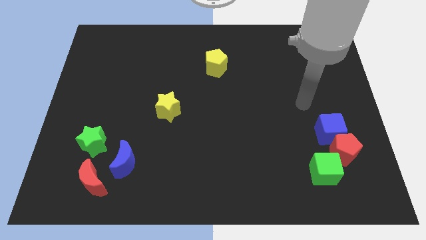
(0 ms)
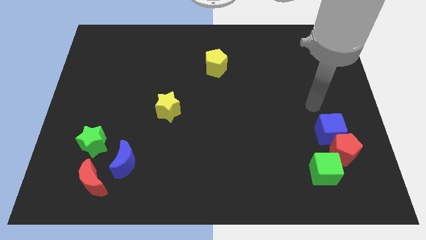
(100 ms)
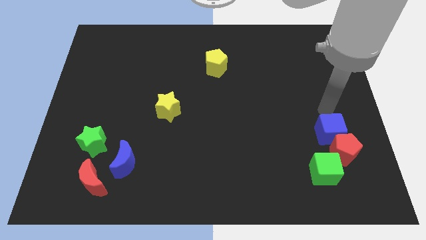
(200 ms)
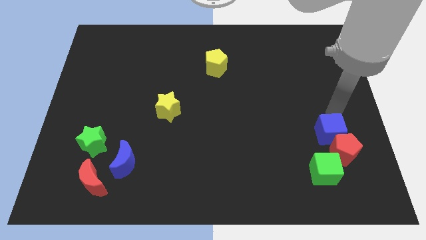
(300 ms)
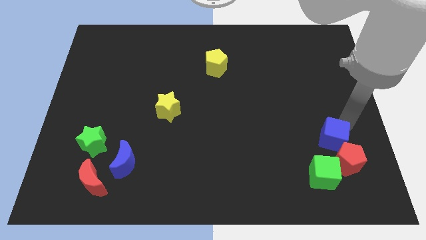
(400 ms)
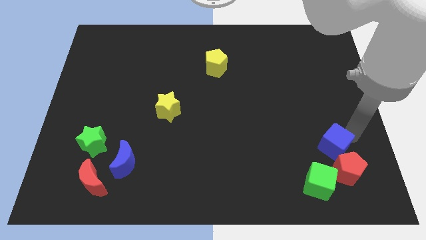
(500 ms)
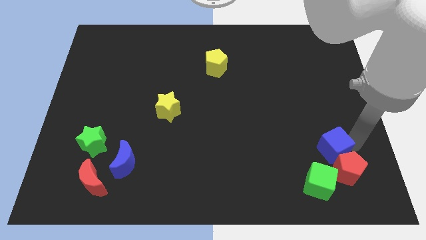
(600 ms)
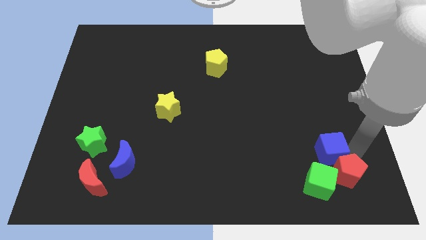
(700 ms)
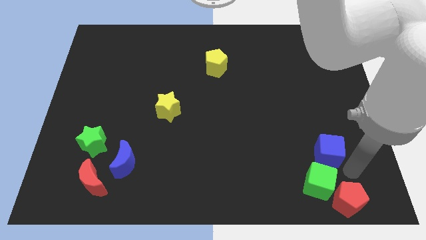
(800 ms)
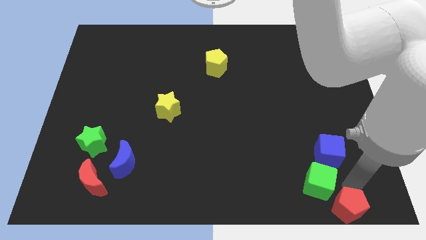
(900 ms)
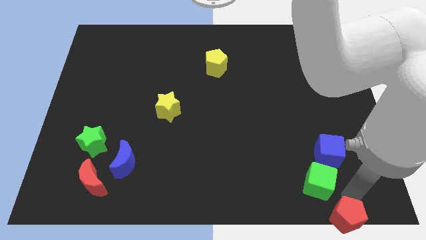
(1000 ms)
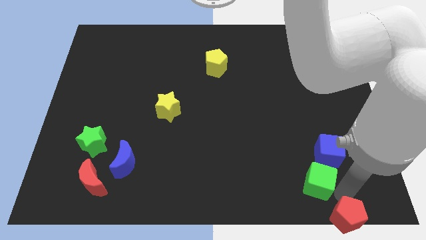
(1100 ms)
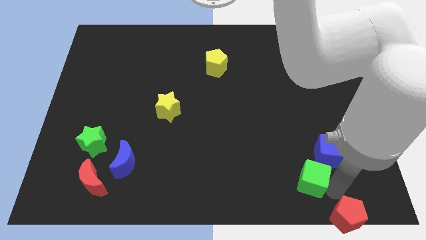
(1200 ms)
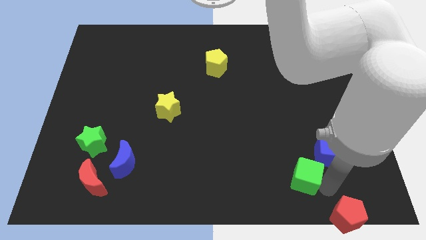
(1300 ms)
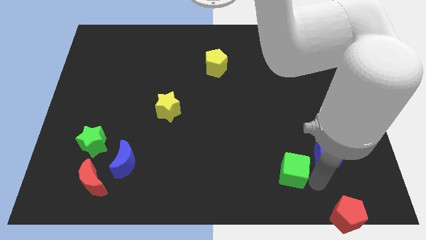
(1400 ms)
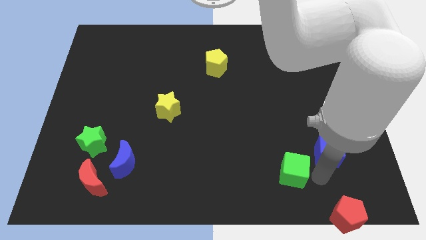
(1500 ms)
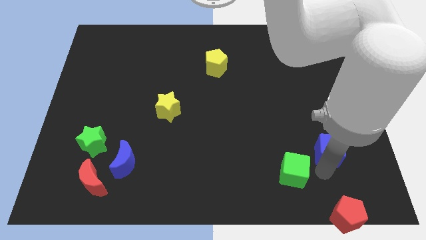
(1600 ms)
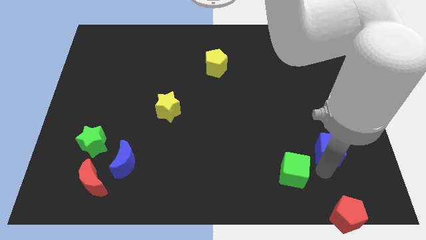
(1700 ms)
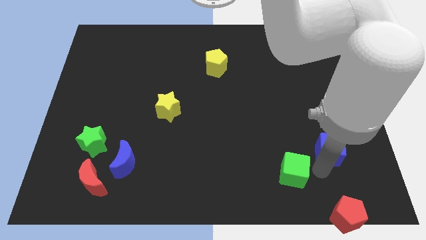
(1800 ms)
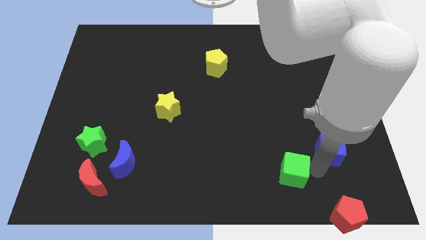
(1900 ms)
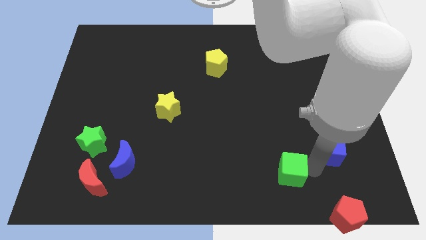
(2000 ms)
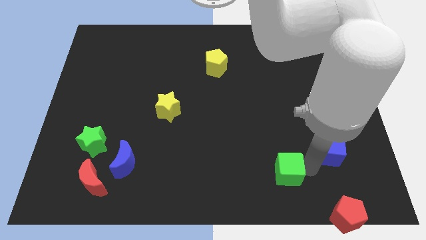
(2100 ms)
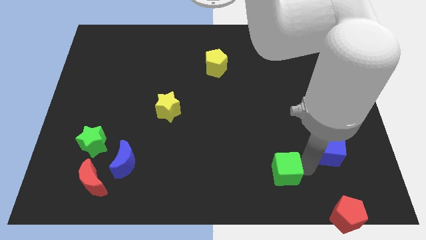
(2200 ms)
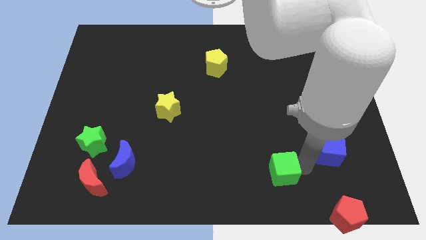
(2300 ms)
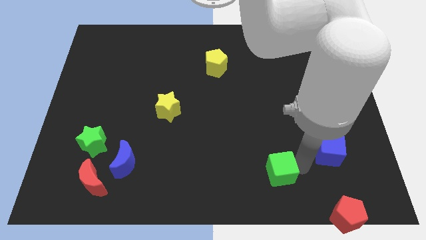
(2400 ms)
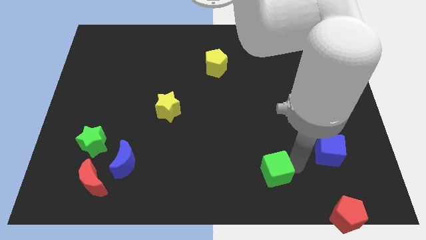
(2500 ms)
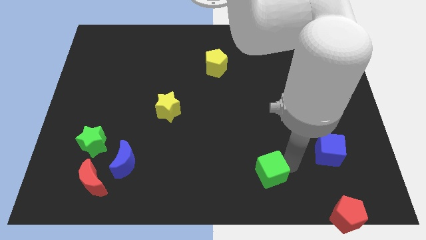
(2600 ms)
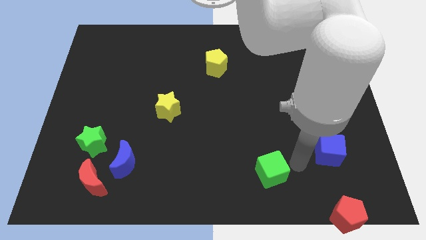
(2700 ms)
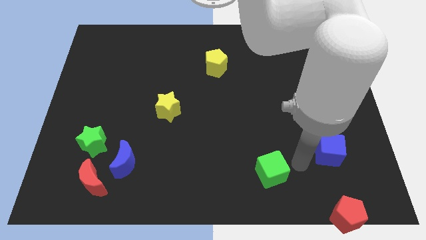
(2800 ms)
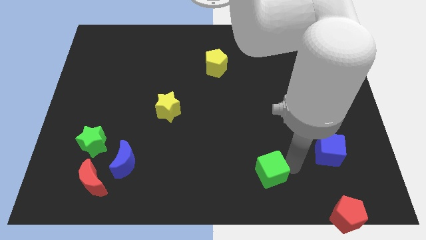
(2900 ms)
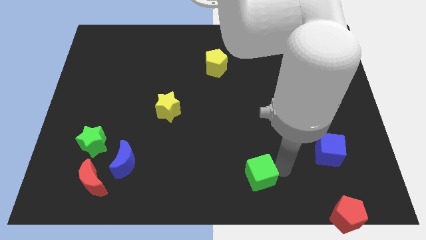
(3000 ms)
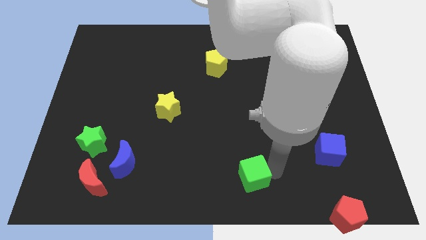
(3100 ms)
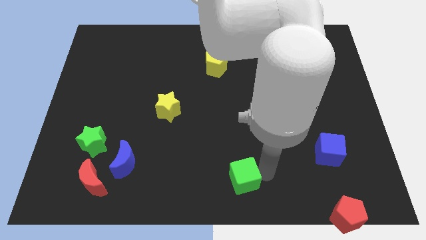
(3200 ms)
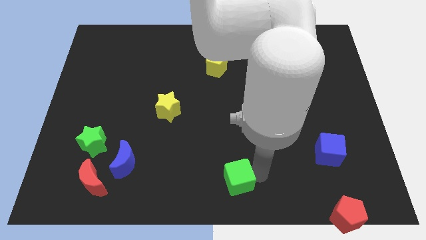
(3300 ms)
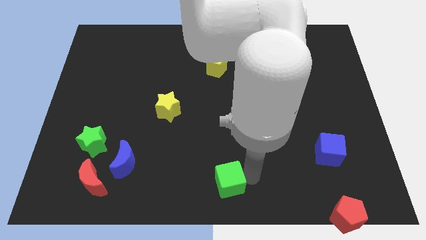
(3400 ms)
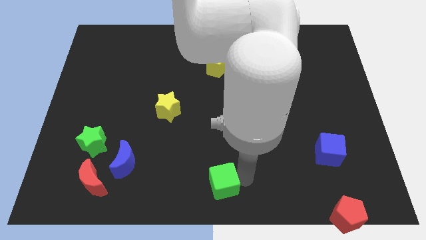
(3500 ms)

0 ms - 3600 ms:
move the green cube to the left

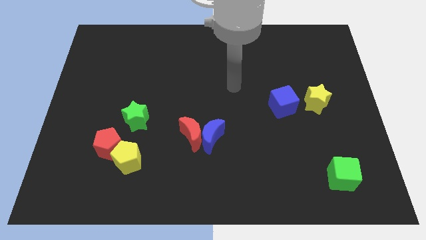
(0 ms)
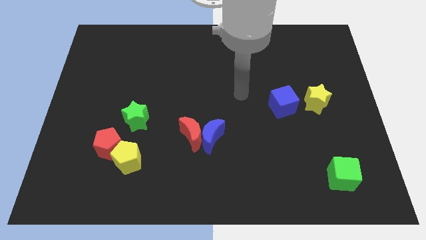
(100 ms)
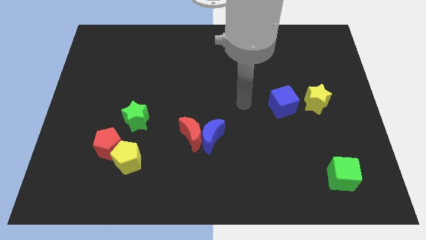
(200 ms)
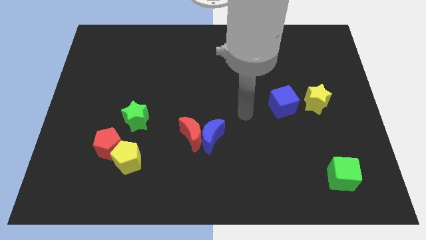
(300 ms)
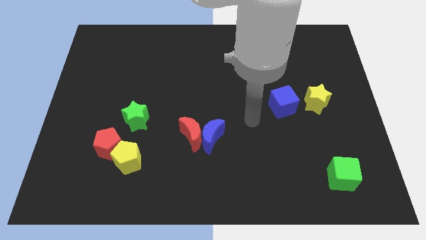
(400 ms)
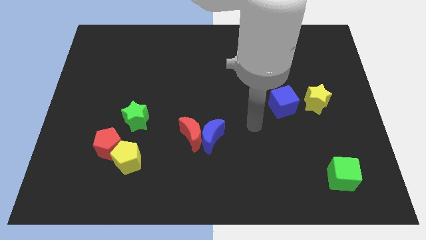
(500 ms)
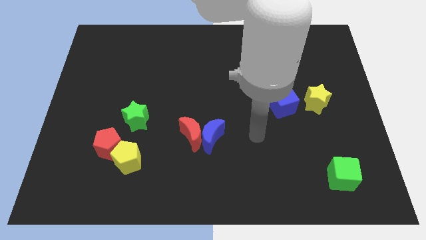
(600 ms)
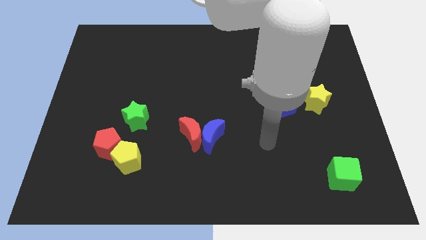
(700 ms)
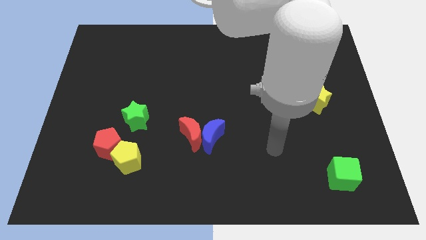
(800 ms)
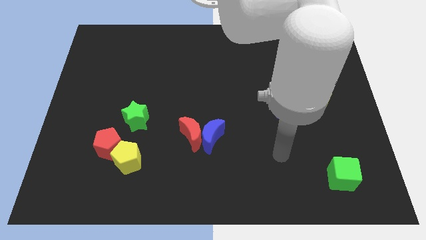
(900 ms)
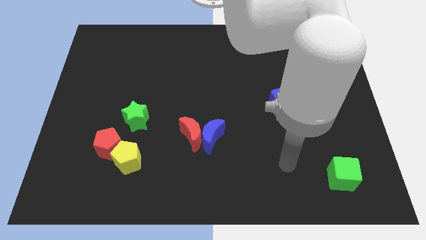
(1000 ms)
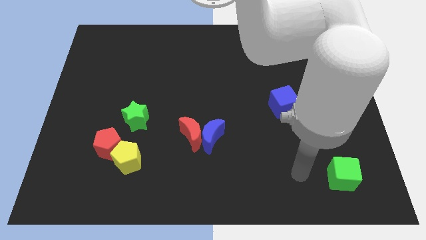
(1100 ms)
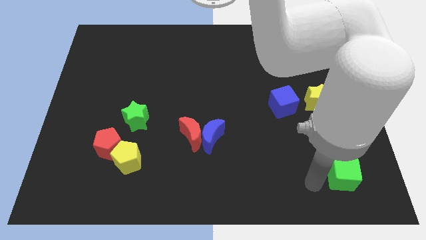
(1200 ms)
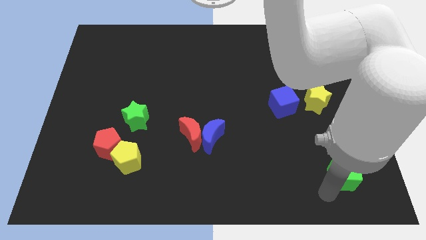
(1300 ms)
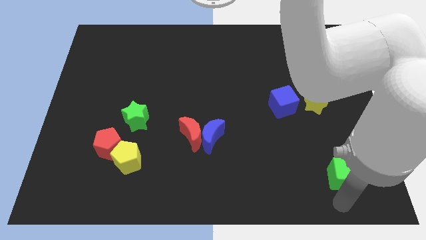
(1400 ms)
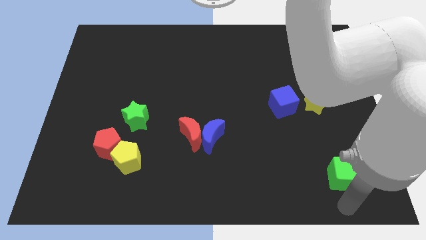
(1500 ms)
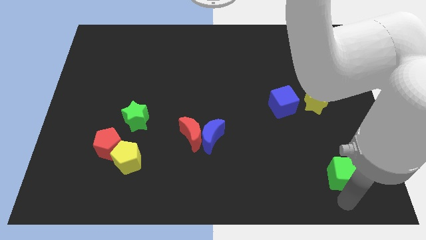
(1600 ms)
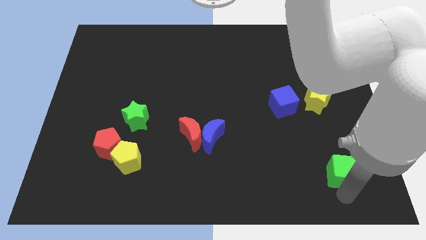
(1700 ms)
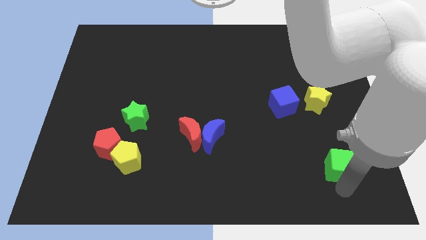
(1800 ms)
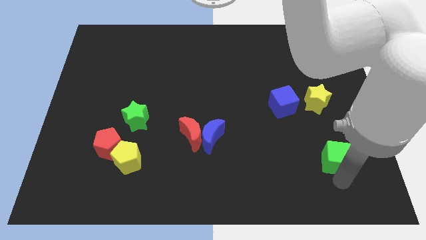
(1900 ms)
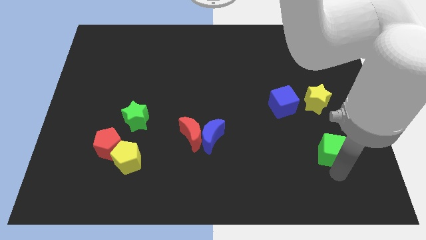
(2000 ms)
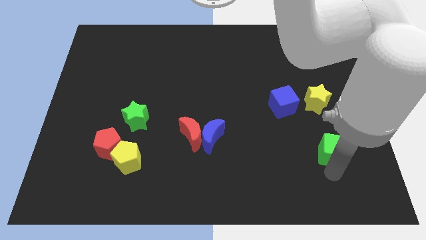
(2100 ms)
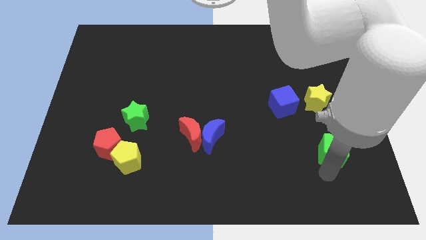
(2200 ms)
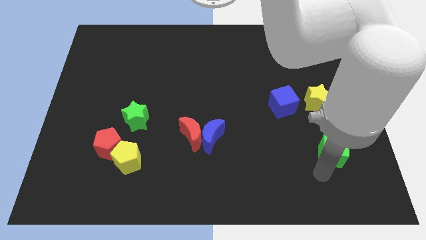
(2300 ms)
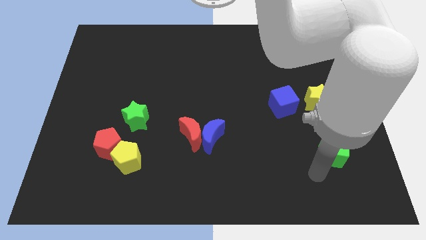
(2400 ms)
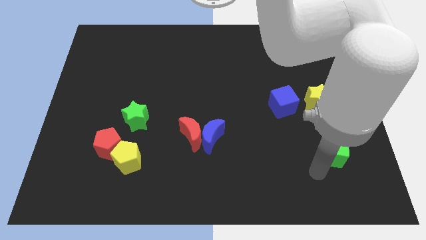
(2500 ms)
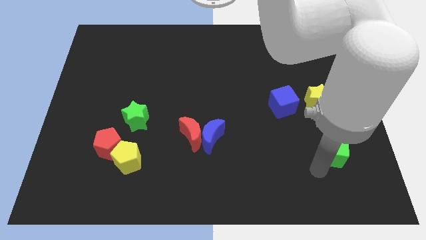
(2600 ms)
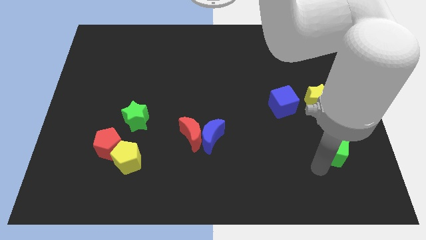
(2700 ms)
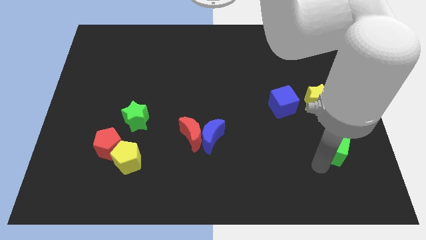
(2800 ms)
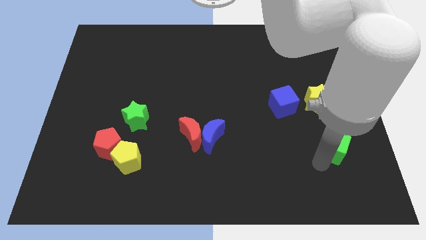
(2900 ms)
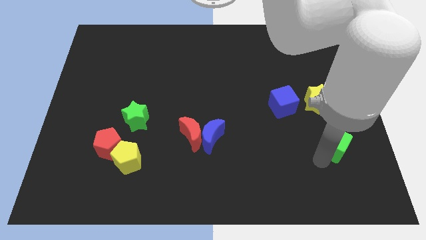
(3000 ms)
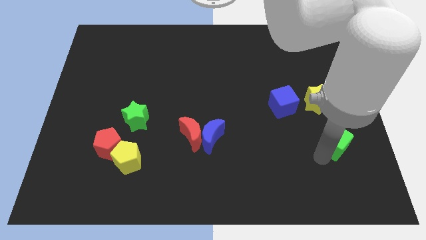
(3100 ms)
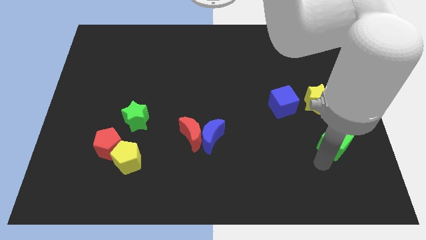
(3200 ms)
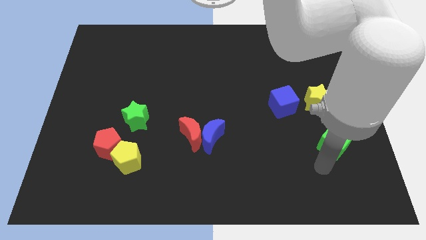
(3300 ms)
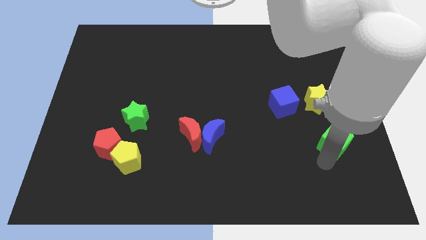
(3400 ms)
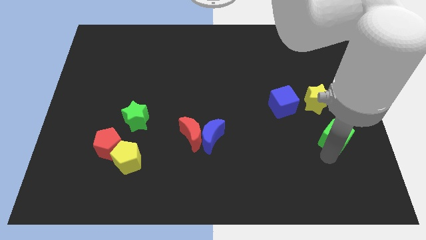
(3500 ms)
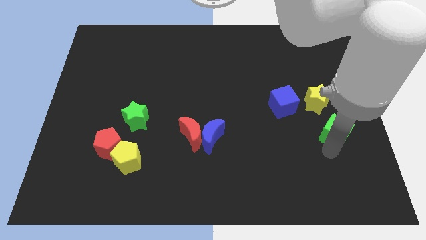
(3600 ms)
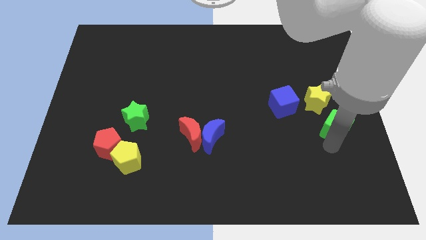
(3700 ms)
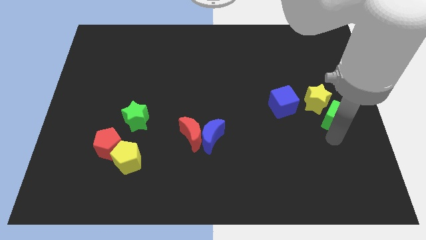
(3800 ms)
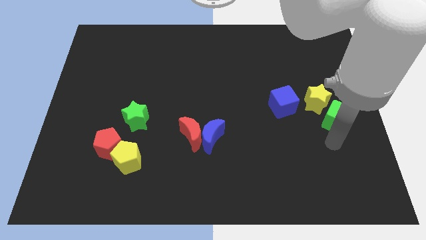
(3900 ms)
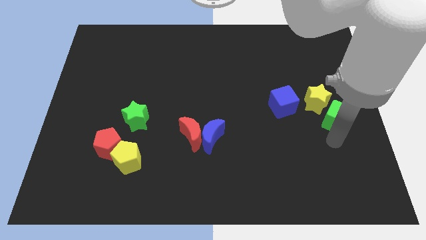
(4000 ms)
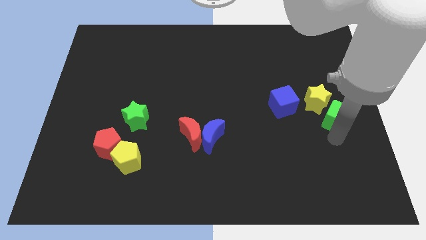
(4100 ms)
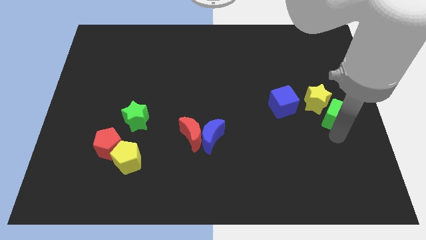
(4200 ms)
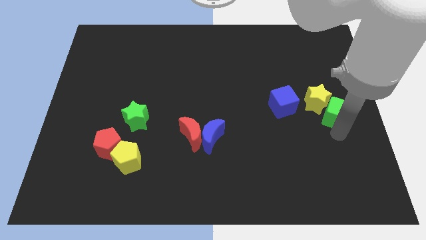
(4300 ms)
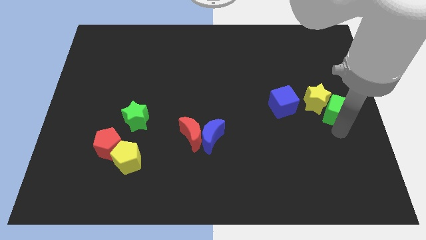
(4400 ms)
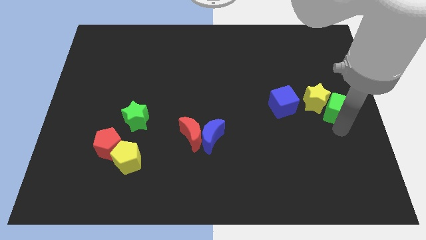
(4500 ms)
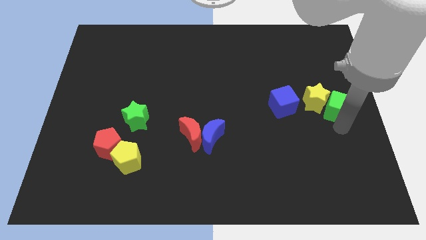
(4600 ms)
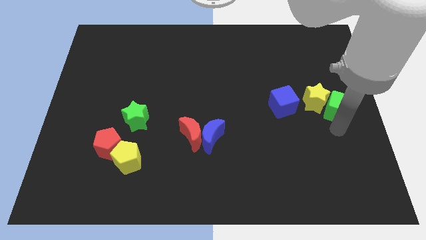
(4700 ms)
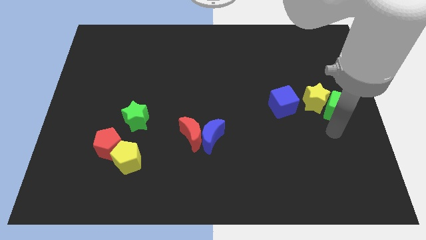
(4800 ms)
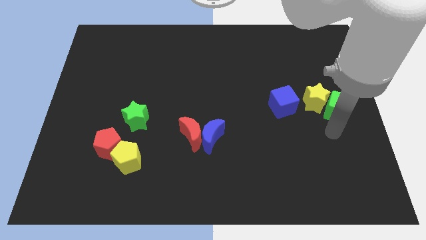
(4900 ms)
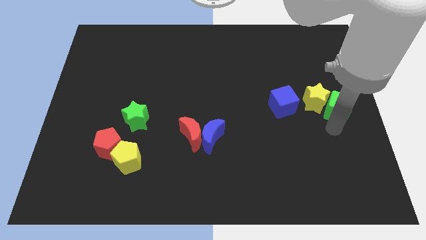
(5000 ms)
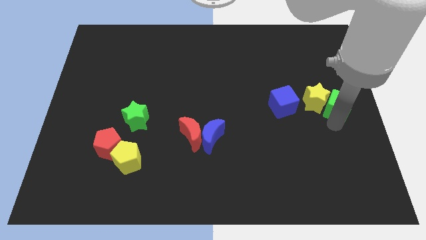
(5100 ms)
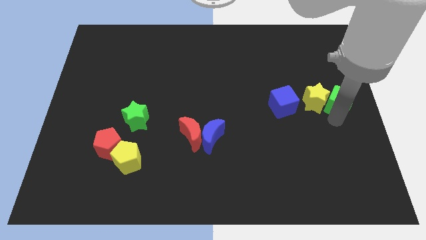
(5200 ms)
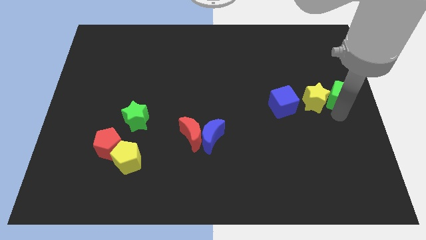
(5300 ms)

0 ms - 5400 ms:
move the green cube upwards
